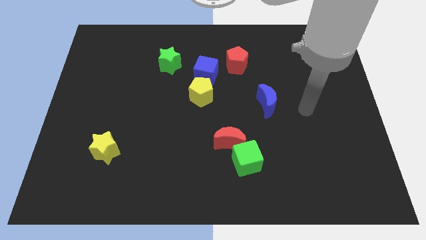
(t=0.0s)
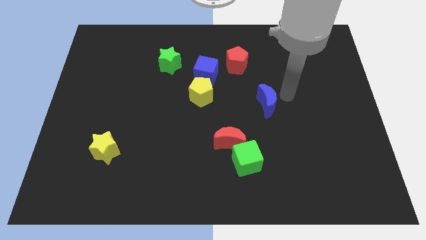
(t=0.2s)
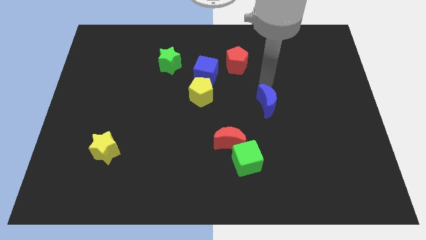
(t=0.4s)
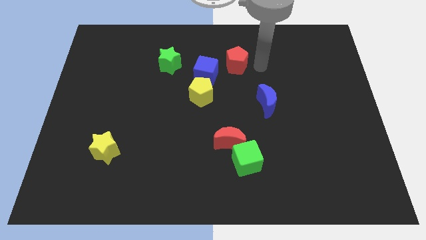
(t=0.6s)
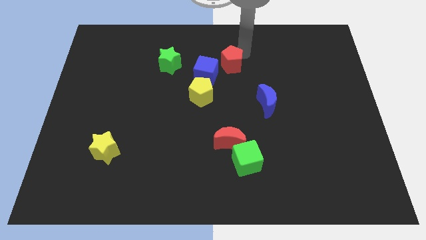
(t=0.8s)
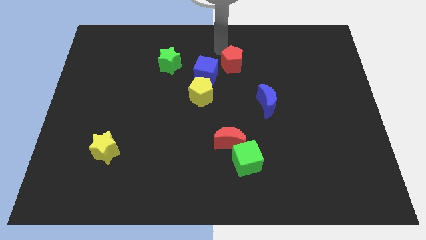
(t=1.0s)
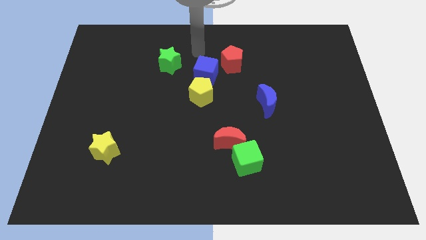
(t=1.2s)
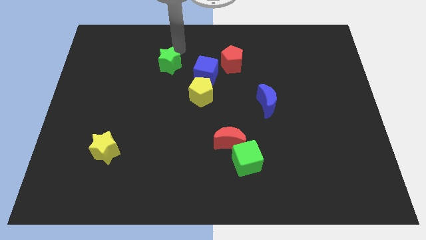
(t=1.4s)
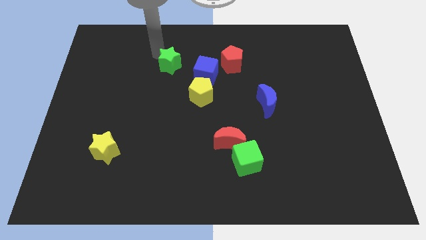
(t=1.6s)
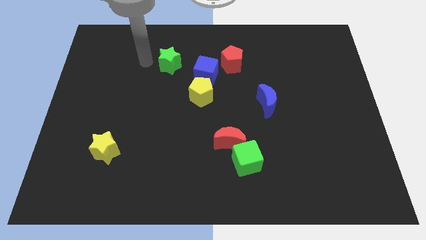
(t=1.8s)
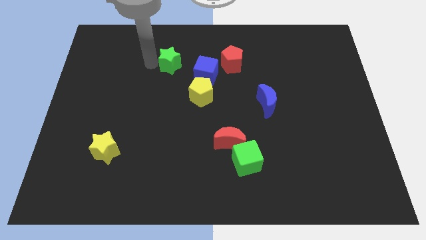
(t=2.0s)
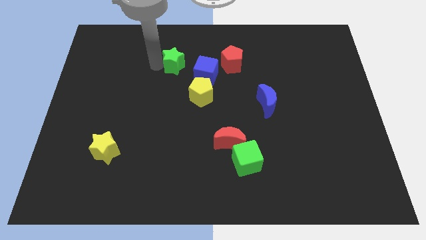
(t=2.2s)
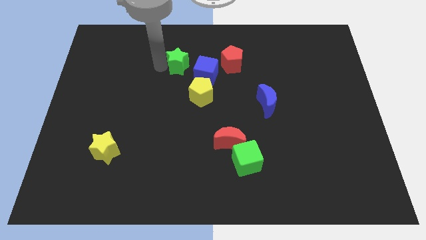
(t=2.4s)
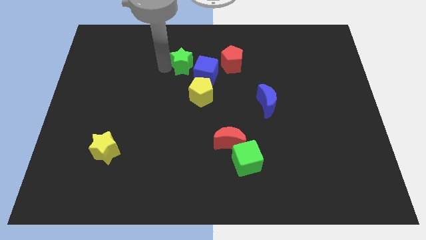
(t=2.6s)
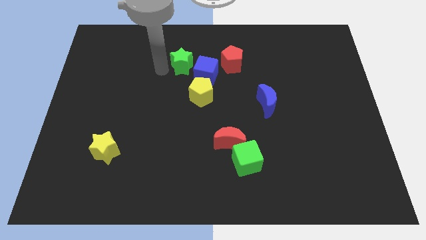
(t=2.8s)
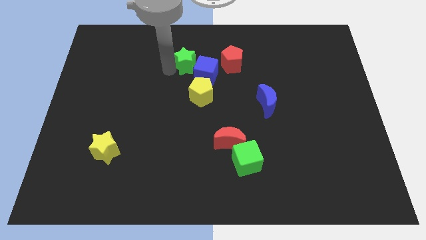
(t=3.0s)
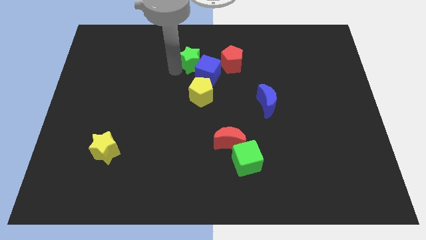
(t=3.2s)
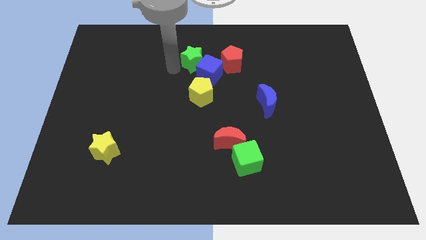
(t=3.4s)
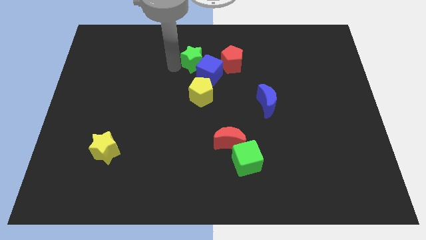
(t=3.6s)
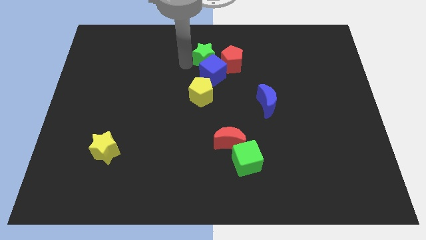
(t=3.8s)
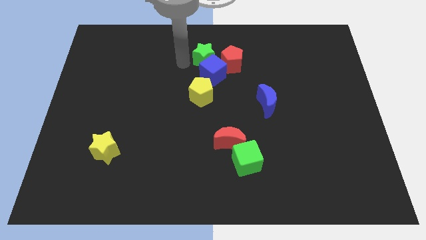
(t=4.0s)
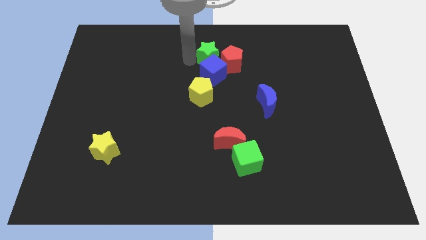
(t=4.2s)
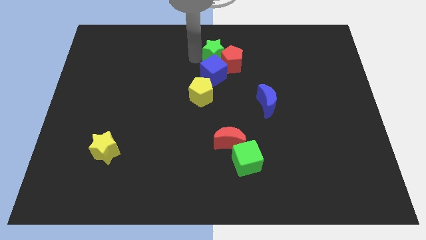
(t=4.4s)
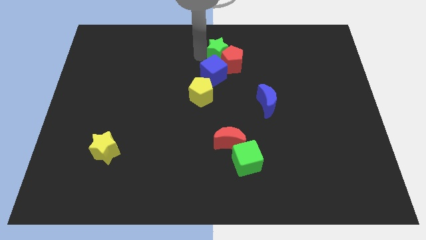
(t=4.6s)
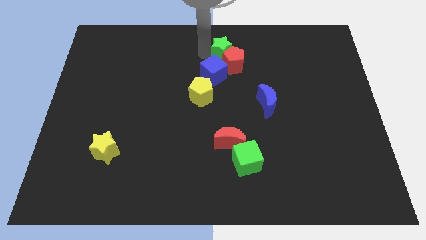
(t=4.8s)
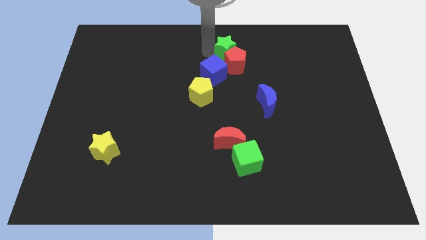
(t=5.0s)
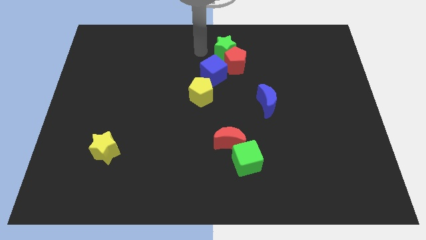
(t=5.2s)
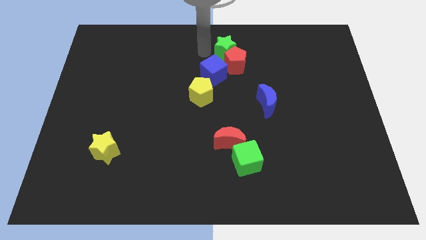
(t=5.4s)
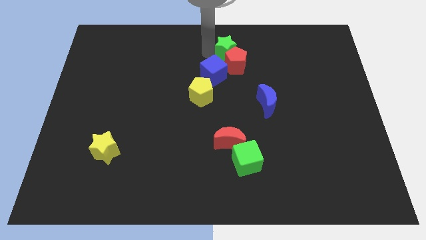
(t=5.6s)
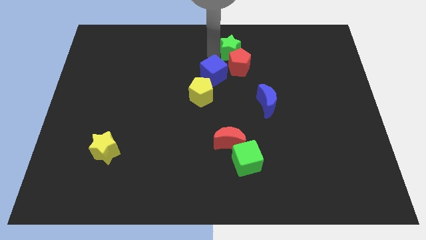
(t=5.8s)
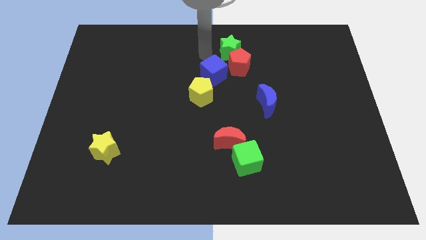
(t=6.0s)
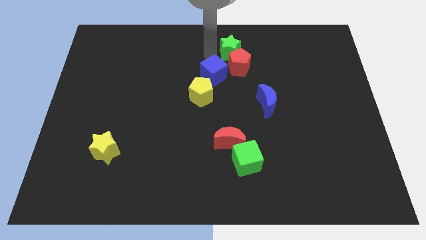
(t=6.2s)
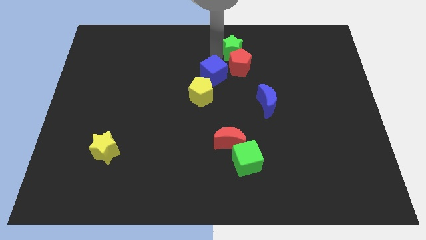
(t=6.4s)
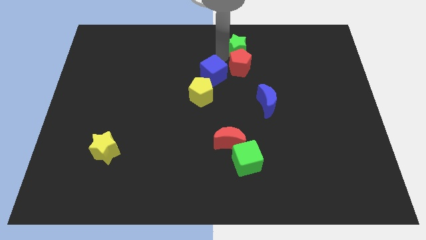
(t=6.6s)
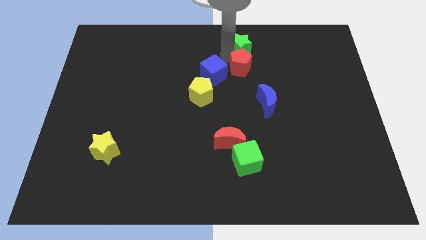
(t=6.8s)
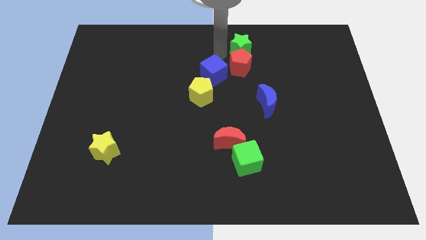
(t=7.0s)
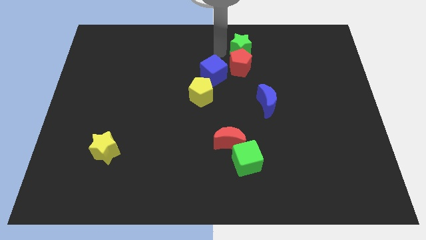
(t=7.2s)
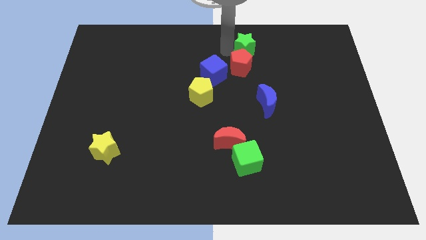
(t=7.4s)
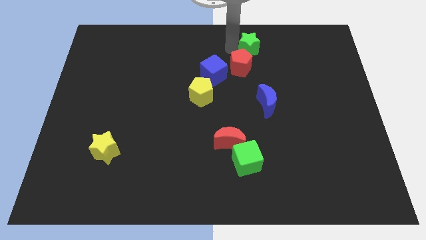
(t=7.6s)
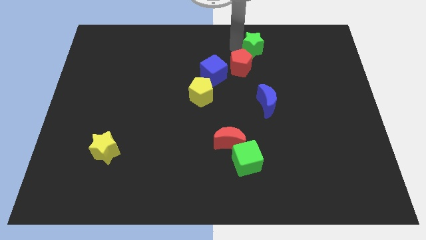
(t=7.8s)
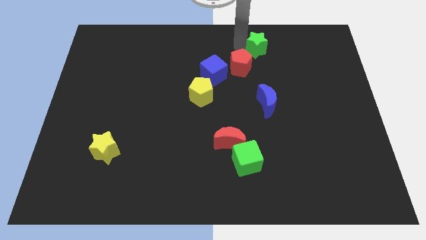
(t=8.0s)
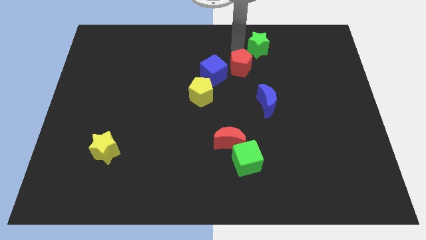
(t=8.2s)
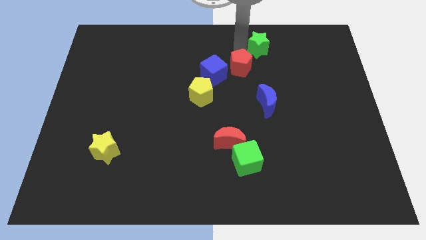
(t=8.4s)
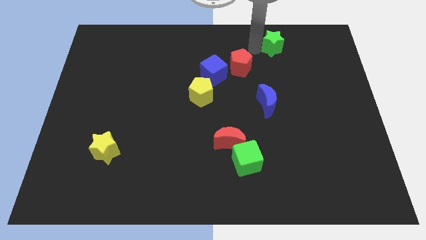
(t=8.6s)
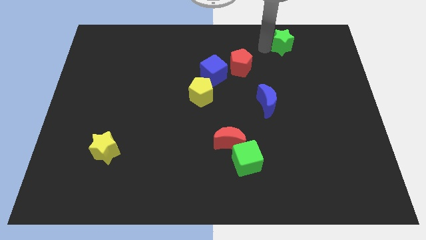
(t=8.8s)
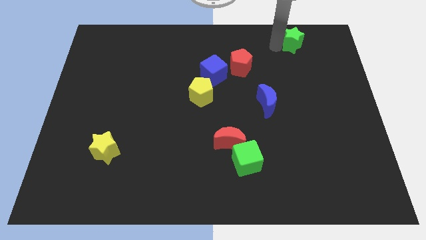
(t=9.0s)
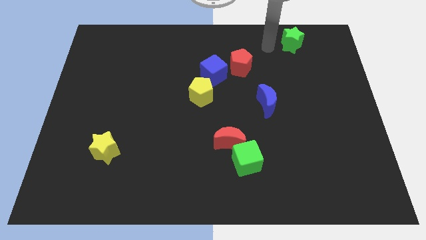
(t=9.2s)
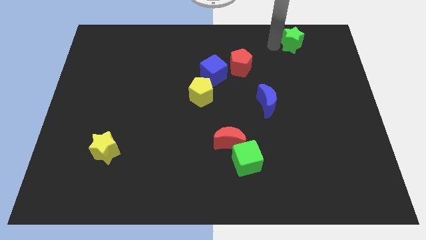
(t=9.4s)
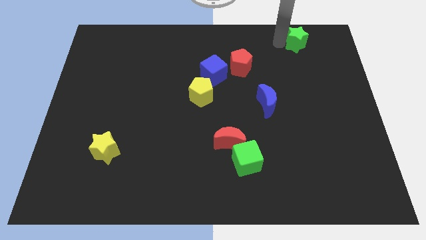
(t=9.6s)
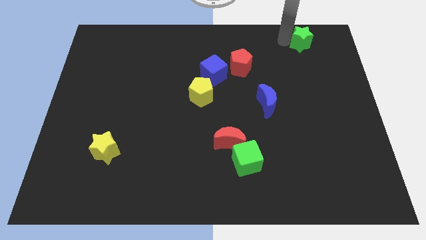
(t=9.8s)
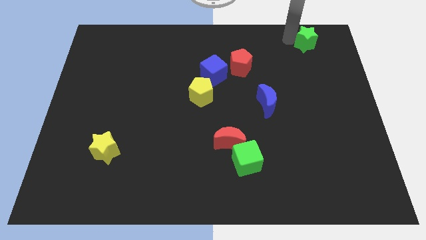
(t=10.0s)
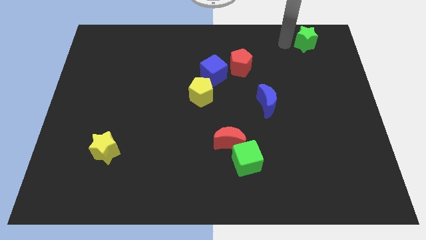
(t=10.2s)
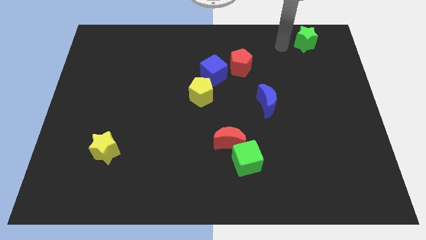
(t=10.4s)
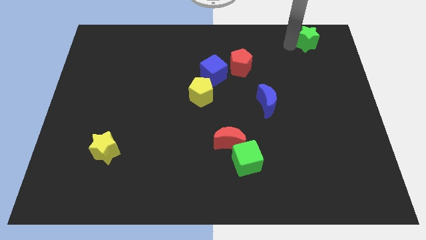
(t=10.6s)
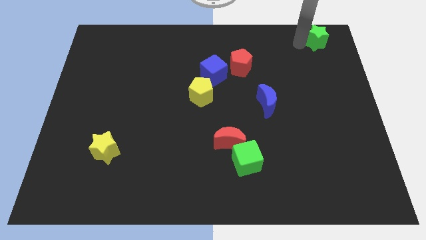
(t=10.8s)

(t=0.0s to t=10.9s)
slide the green star to the upper right corner
